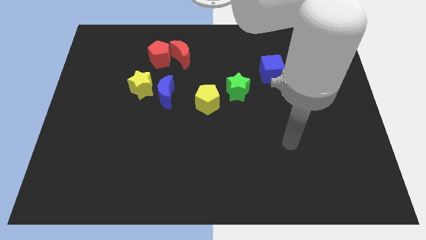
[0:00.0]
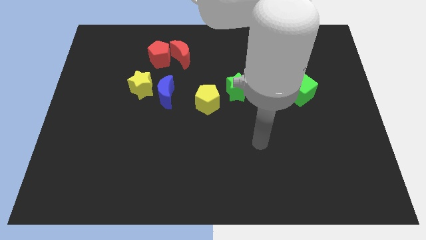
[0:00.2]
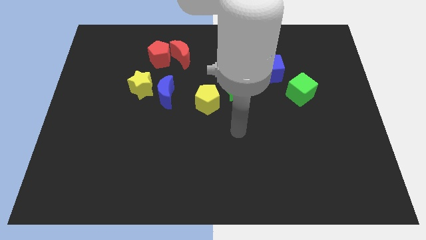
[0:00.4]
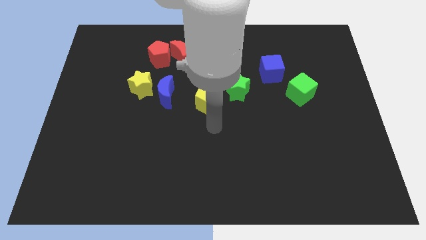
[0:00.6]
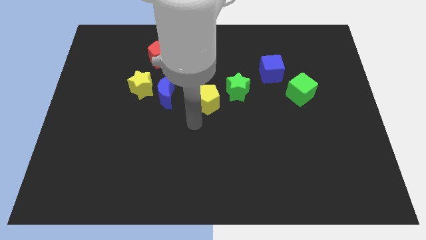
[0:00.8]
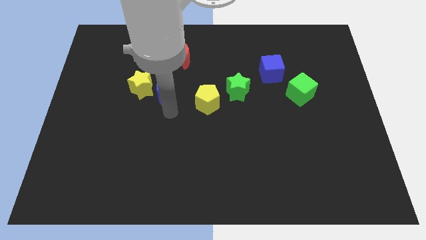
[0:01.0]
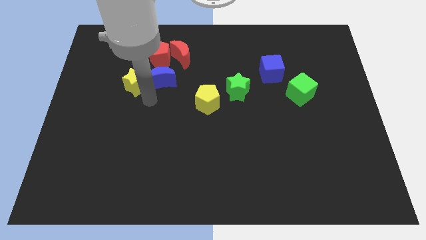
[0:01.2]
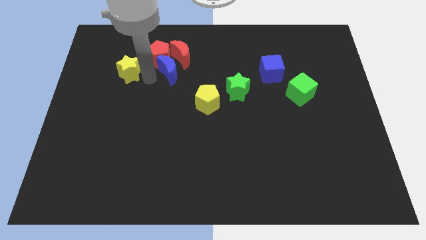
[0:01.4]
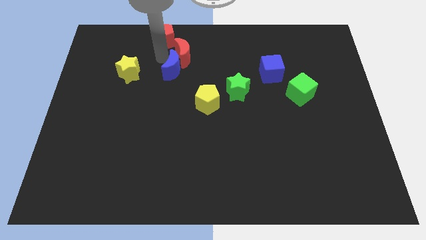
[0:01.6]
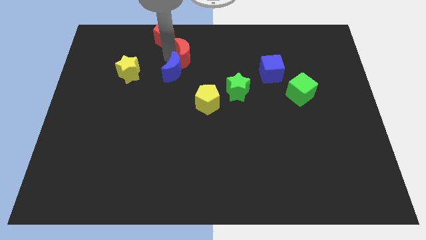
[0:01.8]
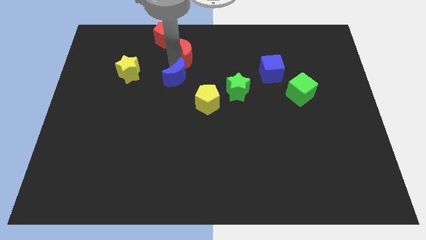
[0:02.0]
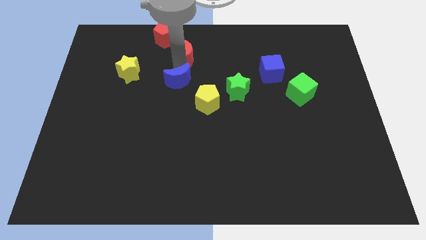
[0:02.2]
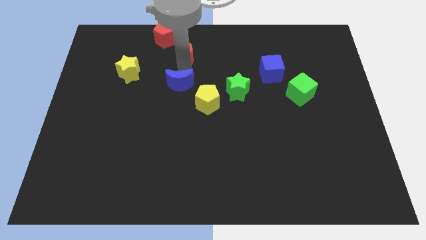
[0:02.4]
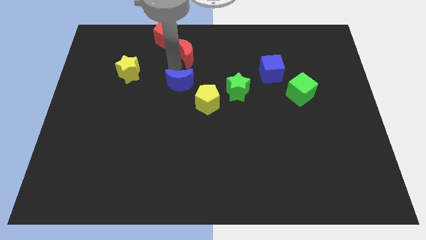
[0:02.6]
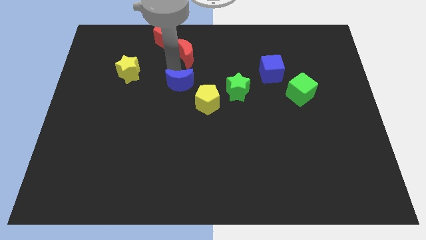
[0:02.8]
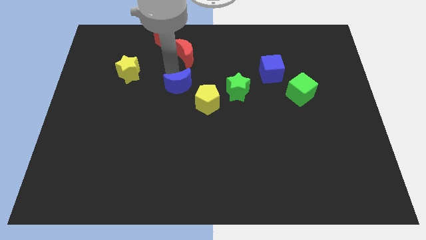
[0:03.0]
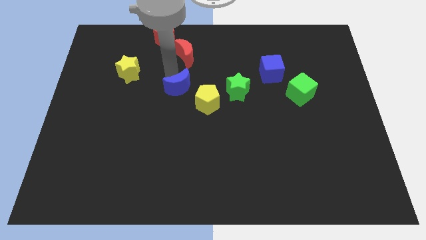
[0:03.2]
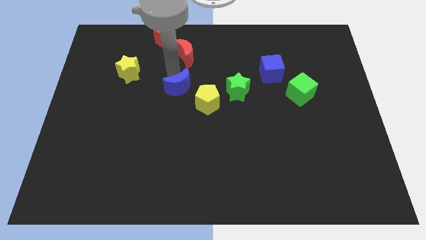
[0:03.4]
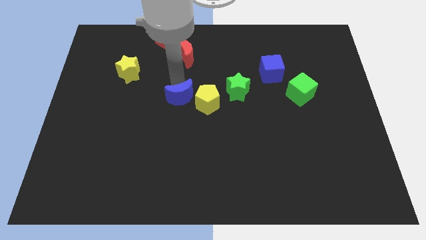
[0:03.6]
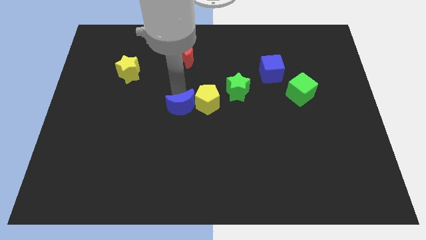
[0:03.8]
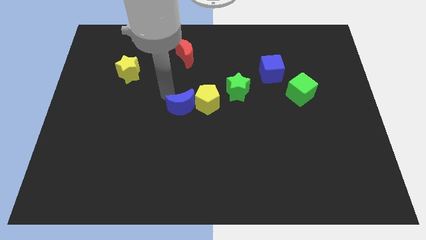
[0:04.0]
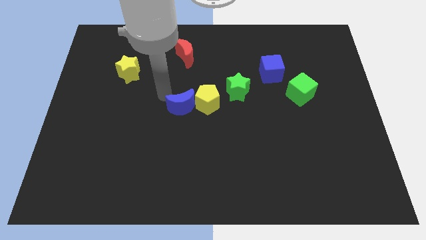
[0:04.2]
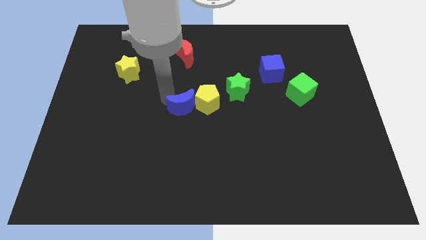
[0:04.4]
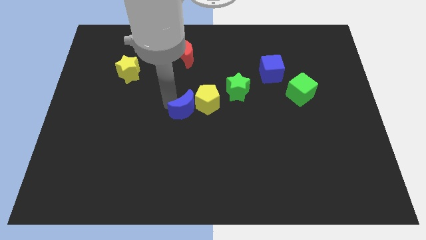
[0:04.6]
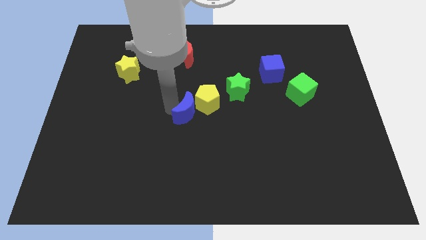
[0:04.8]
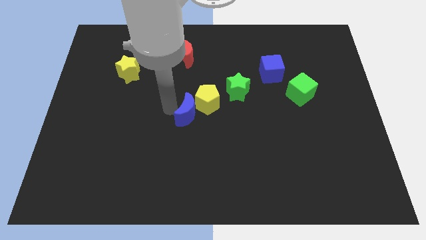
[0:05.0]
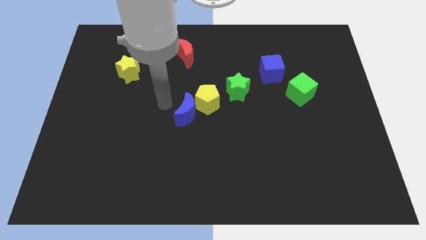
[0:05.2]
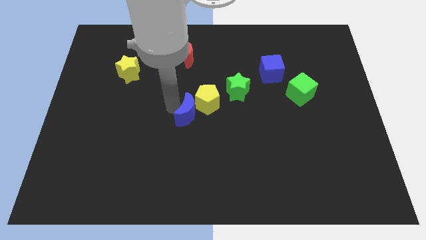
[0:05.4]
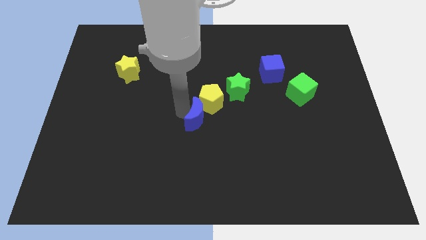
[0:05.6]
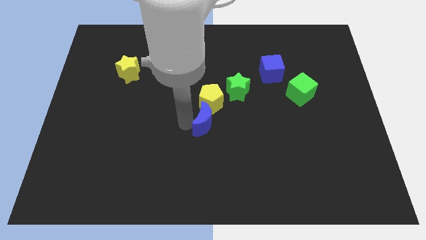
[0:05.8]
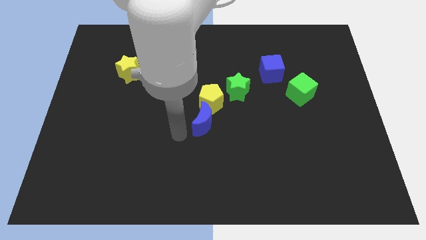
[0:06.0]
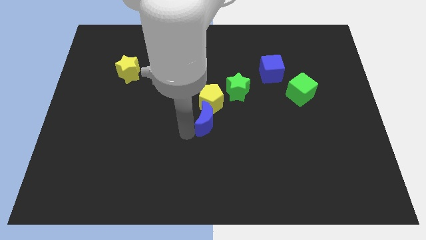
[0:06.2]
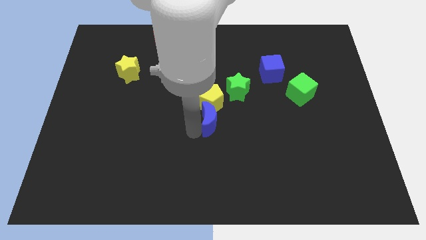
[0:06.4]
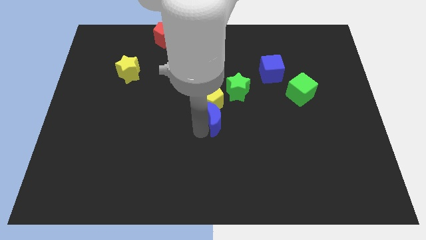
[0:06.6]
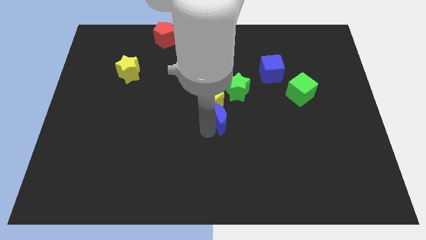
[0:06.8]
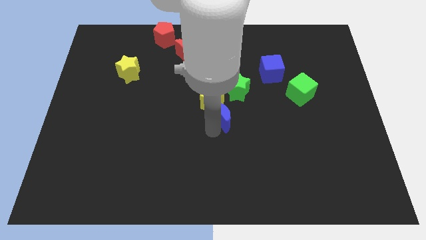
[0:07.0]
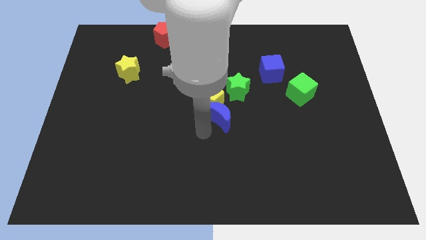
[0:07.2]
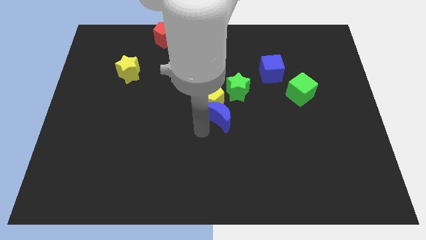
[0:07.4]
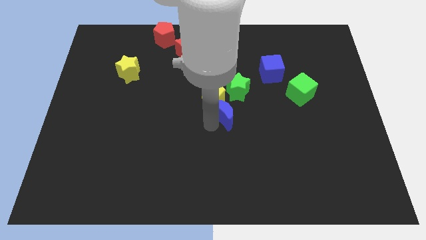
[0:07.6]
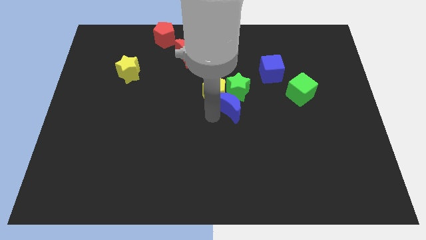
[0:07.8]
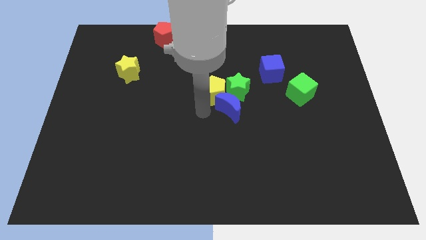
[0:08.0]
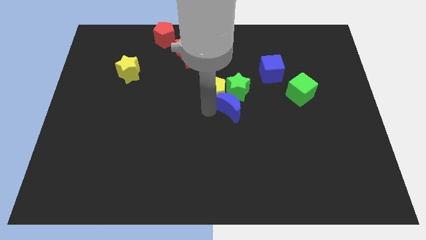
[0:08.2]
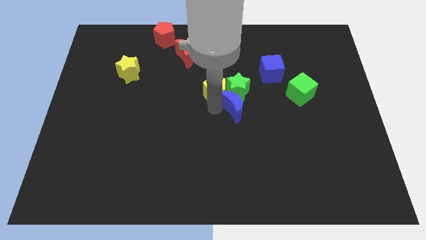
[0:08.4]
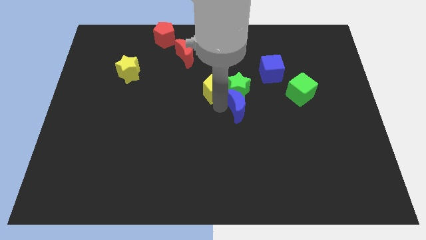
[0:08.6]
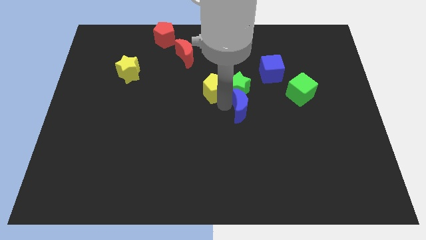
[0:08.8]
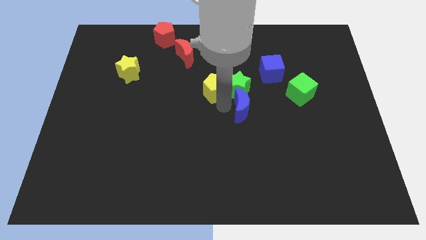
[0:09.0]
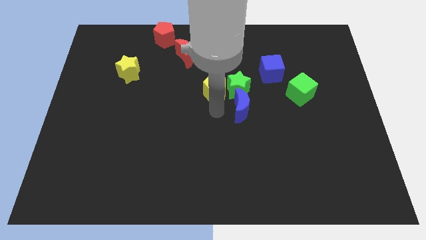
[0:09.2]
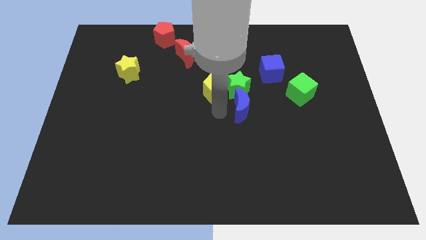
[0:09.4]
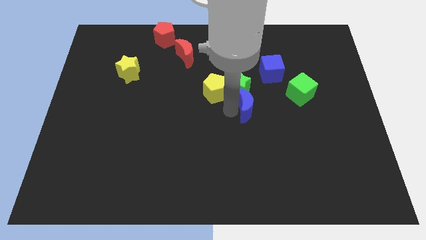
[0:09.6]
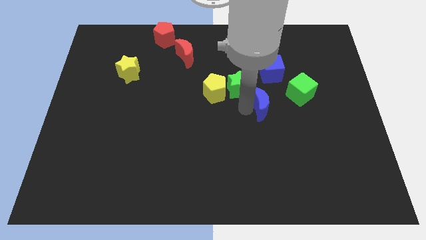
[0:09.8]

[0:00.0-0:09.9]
push the blue moon to the bottom of the blue cube

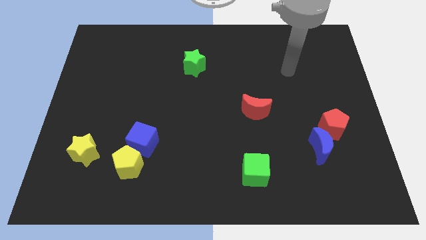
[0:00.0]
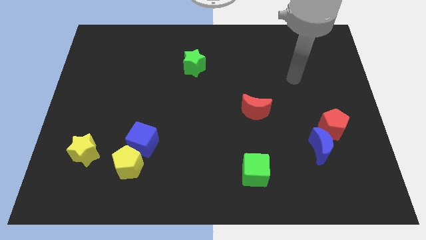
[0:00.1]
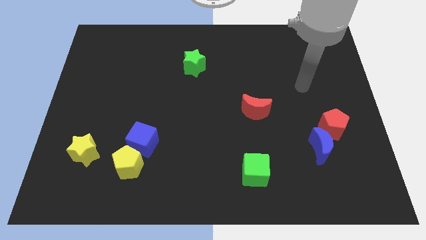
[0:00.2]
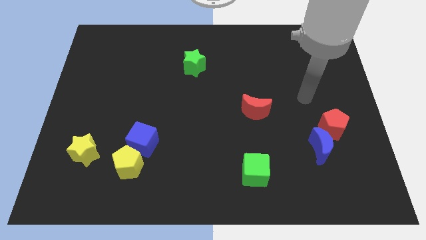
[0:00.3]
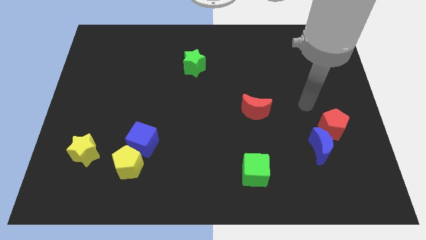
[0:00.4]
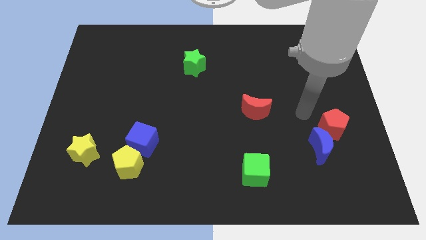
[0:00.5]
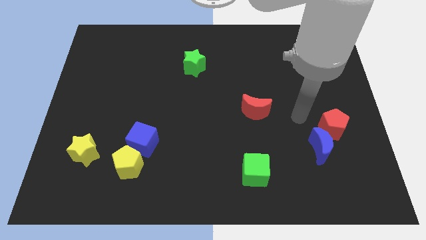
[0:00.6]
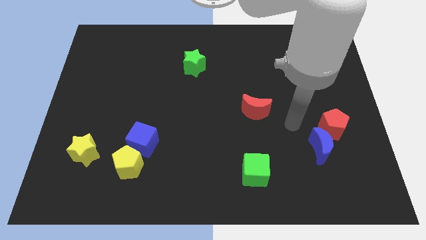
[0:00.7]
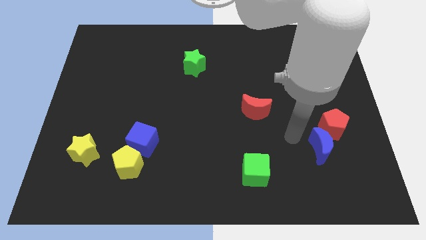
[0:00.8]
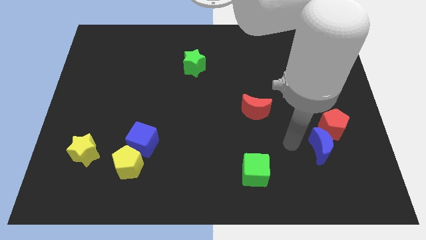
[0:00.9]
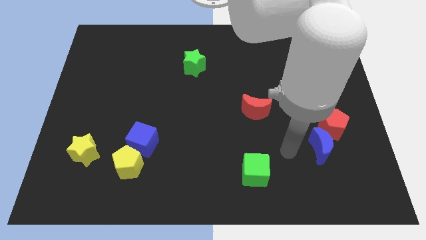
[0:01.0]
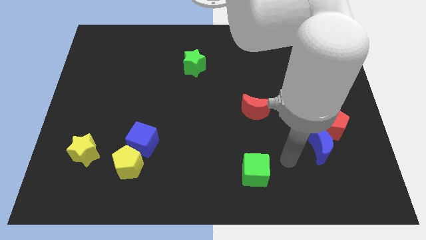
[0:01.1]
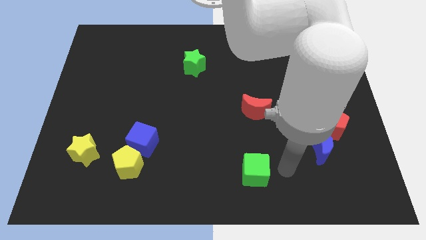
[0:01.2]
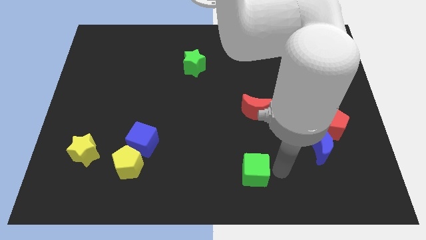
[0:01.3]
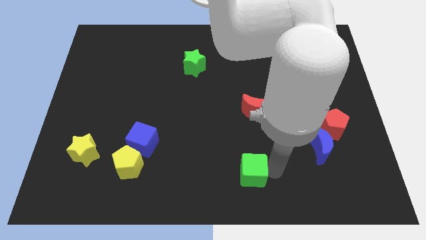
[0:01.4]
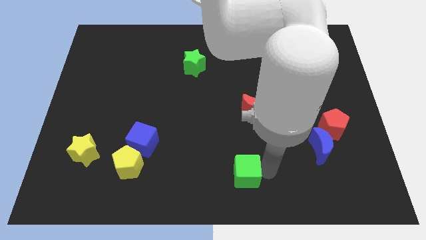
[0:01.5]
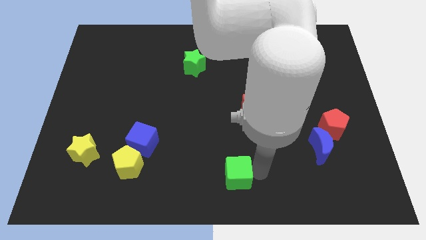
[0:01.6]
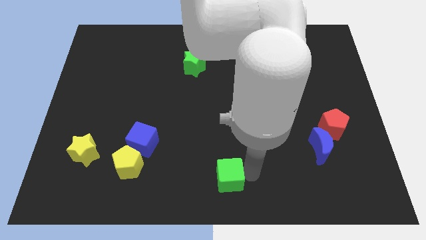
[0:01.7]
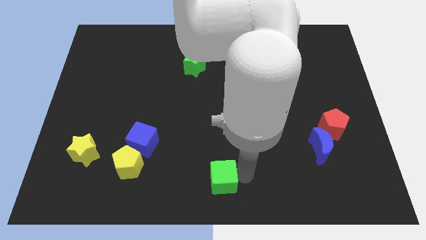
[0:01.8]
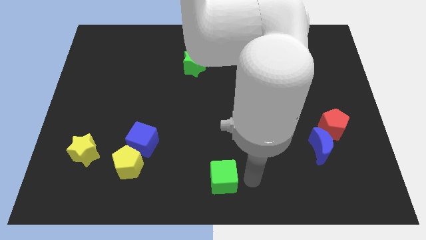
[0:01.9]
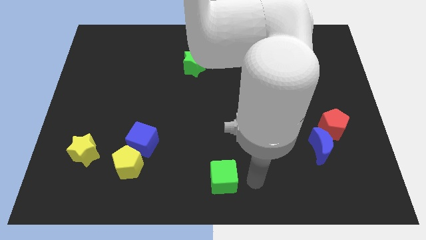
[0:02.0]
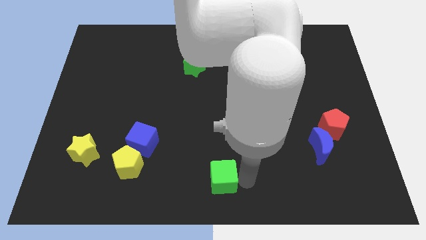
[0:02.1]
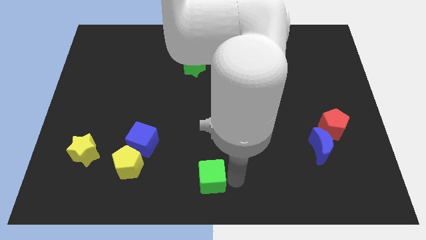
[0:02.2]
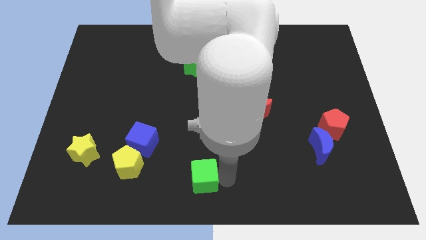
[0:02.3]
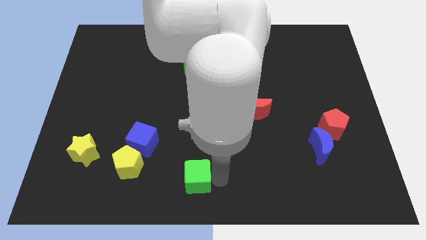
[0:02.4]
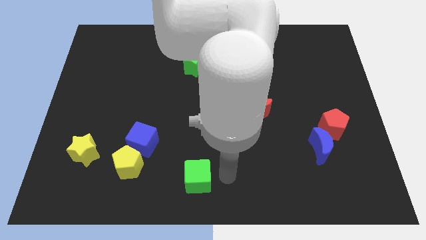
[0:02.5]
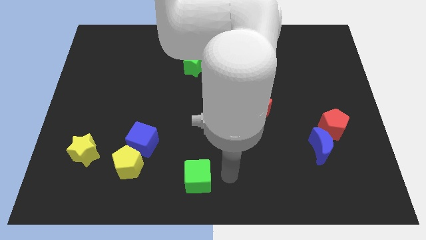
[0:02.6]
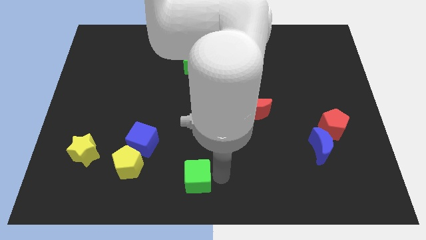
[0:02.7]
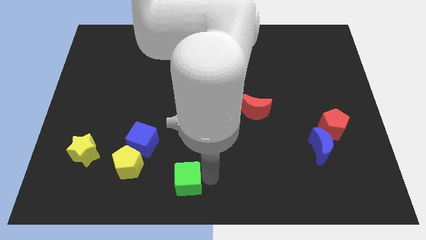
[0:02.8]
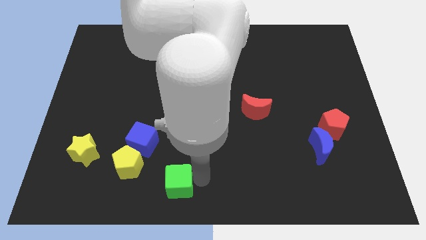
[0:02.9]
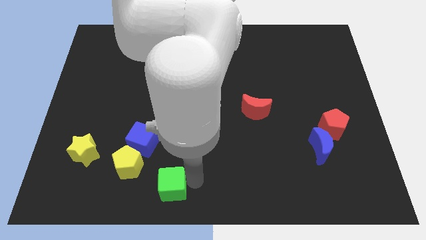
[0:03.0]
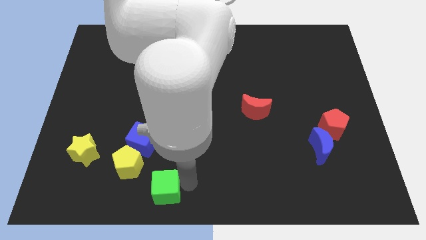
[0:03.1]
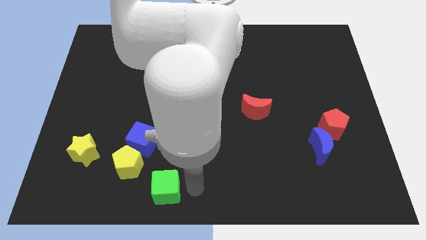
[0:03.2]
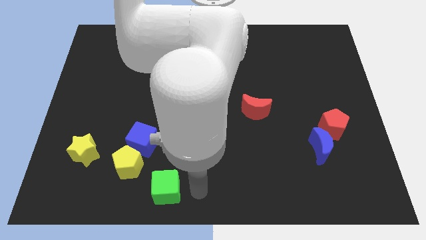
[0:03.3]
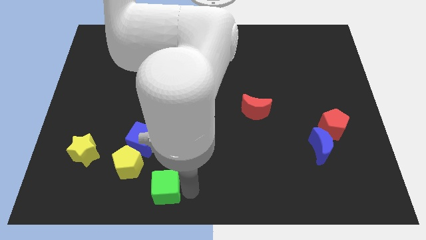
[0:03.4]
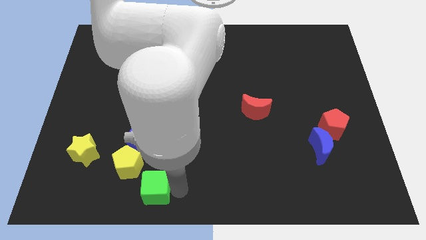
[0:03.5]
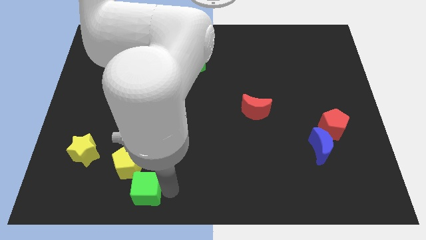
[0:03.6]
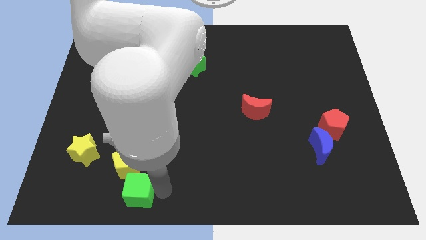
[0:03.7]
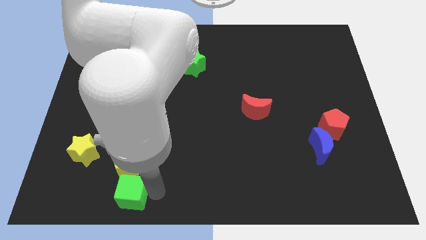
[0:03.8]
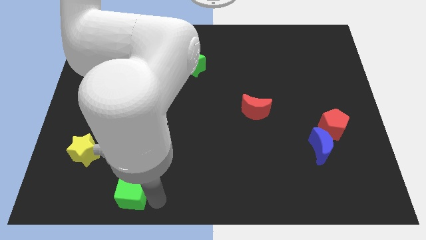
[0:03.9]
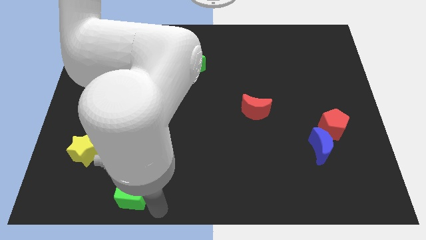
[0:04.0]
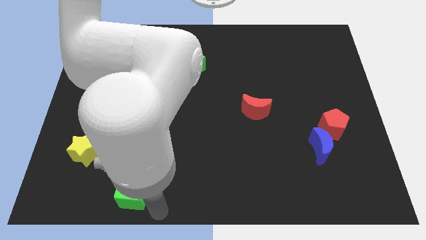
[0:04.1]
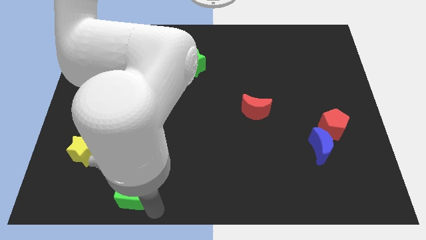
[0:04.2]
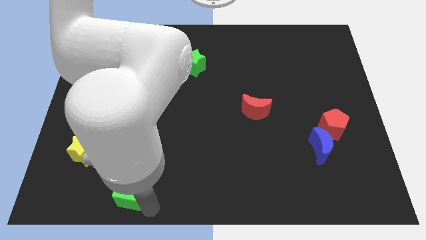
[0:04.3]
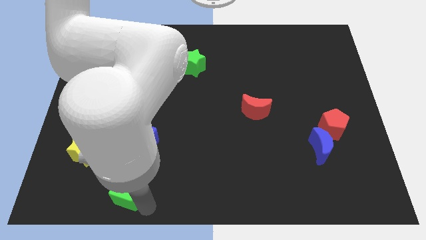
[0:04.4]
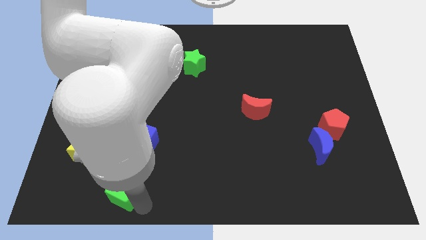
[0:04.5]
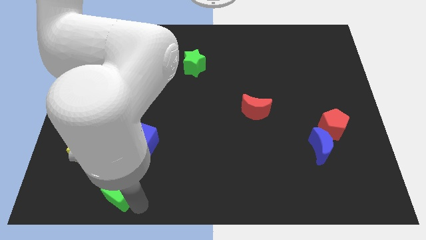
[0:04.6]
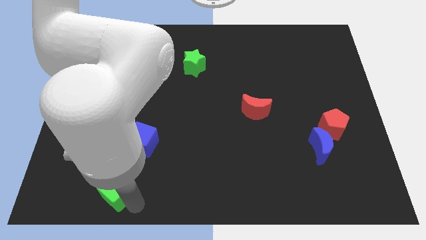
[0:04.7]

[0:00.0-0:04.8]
slide the green cube diagonally down and to the right of the yellow star
